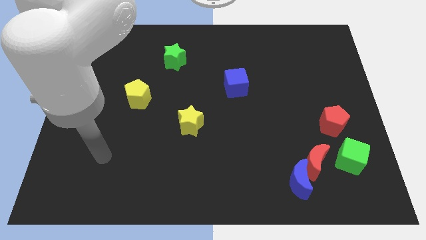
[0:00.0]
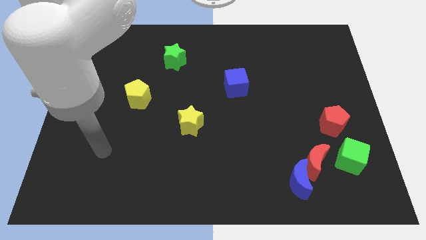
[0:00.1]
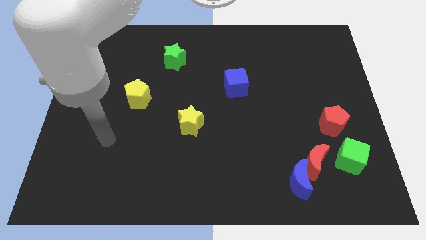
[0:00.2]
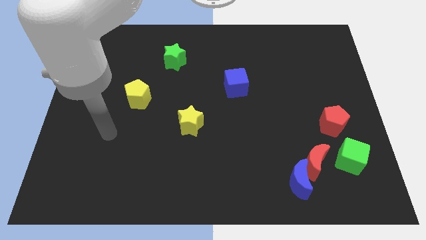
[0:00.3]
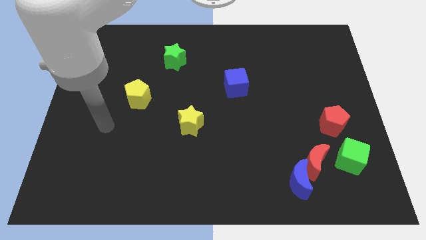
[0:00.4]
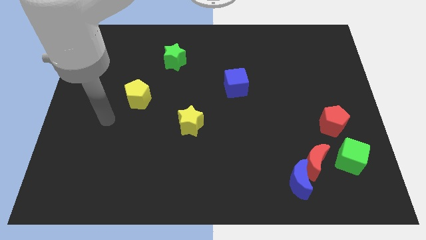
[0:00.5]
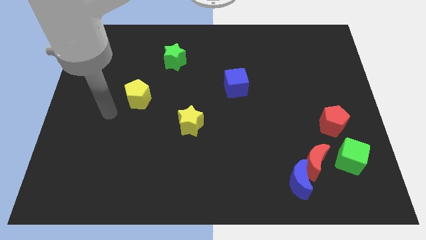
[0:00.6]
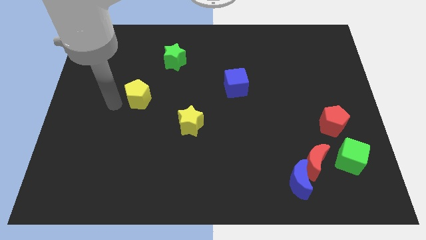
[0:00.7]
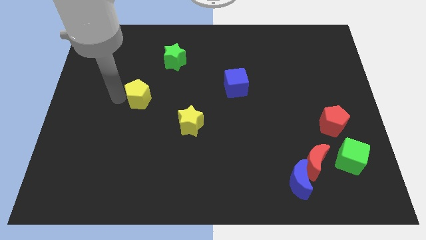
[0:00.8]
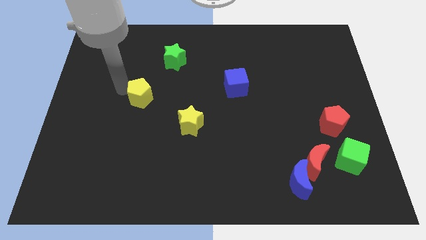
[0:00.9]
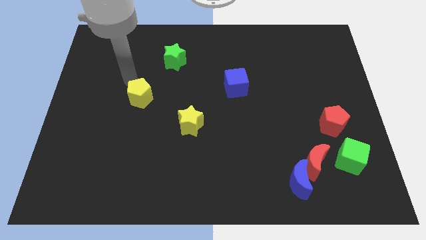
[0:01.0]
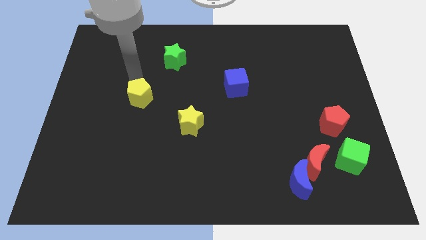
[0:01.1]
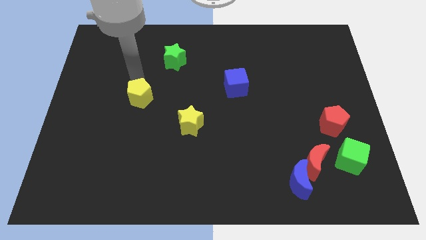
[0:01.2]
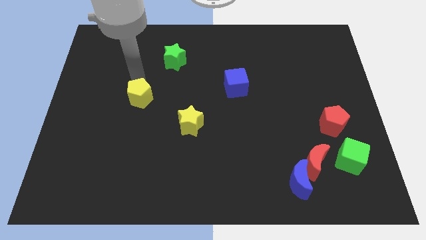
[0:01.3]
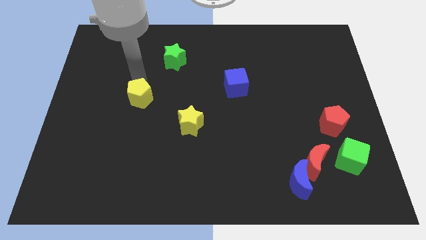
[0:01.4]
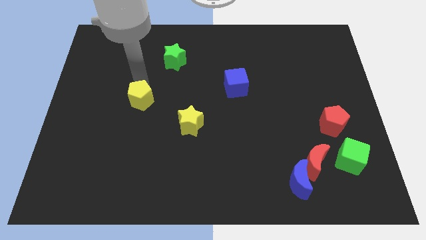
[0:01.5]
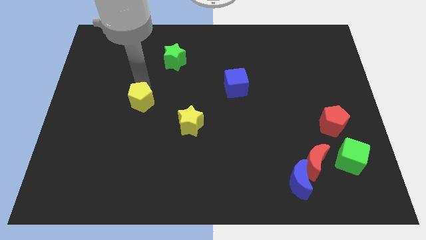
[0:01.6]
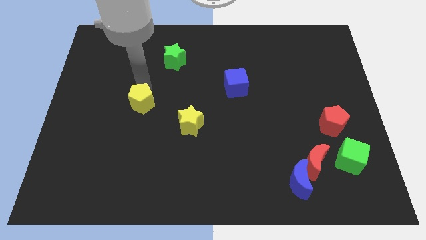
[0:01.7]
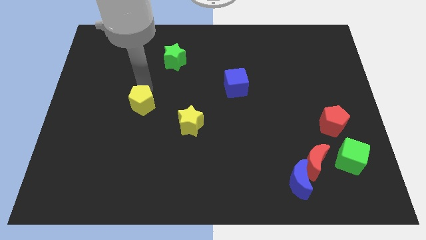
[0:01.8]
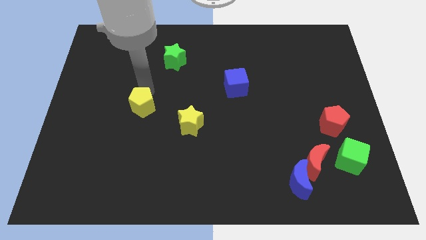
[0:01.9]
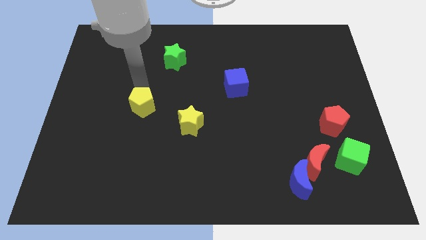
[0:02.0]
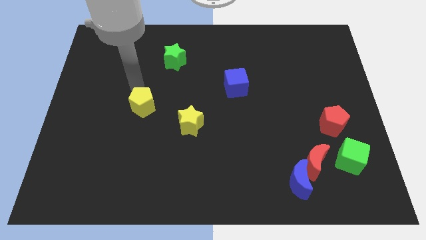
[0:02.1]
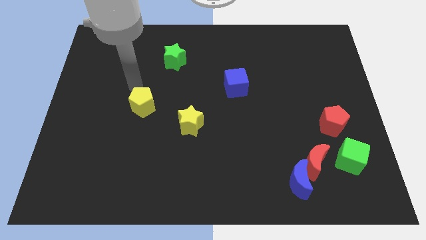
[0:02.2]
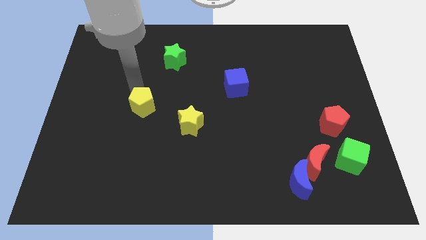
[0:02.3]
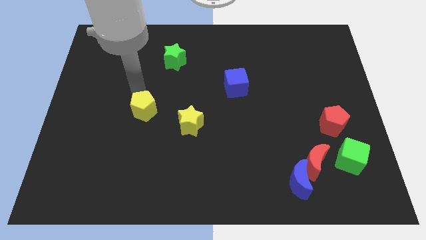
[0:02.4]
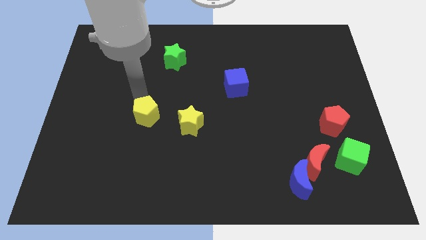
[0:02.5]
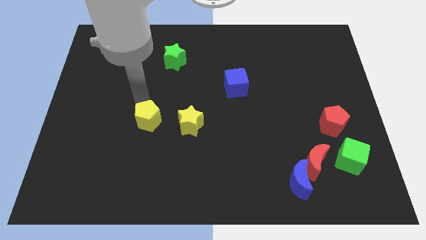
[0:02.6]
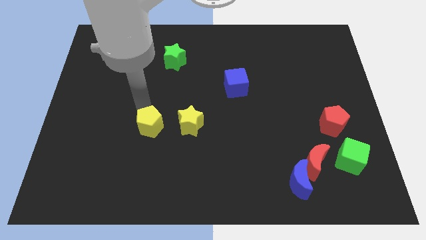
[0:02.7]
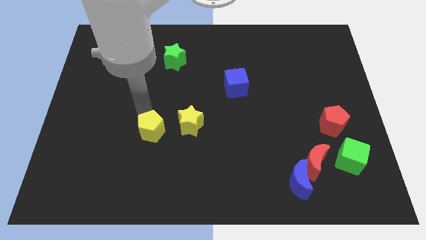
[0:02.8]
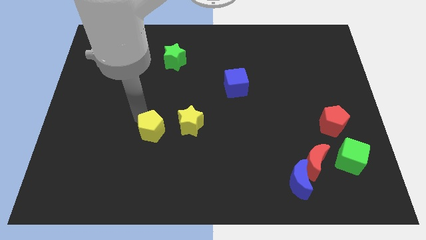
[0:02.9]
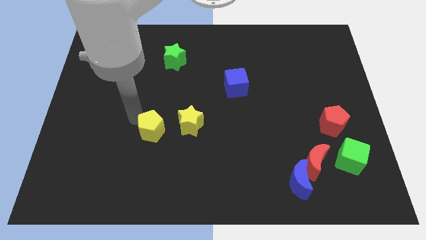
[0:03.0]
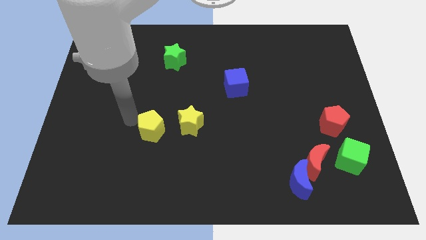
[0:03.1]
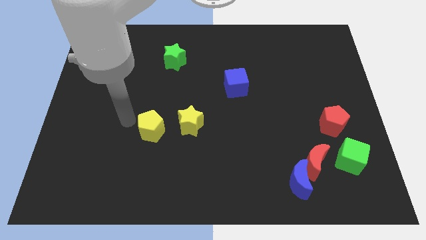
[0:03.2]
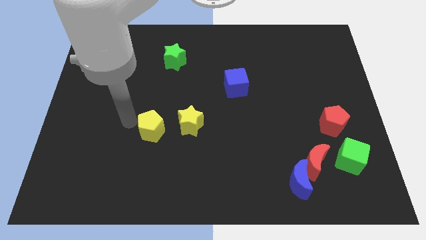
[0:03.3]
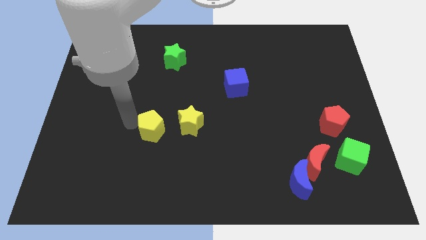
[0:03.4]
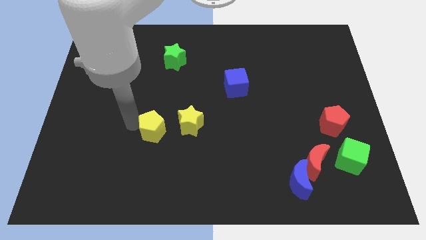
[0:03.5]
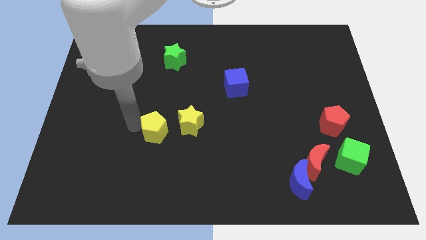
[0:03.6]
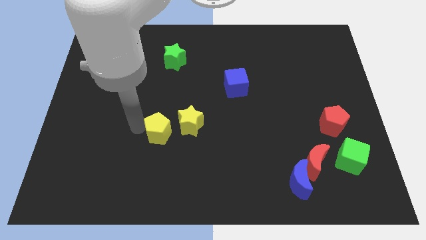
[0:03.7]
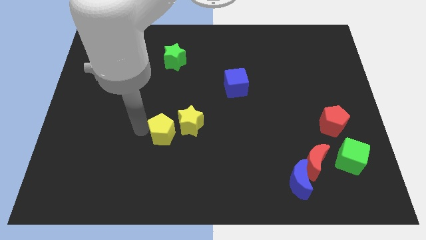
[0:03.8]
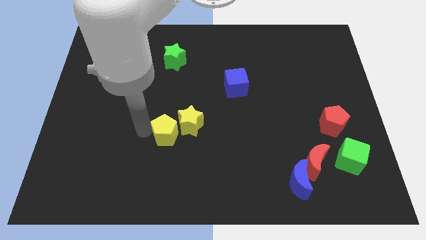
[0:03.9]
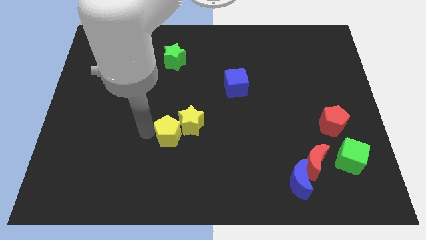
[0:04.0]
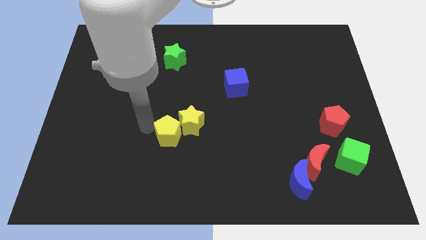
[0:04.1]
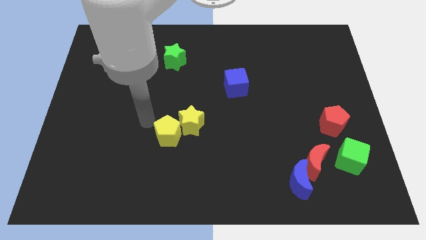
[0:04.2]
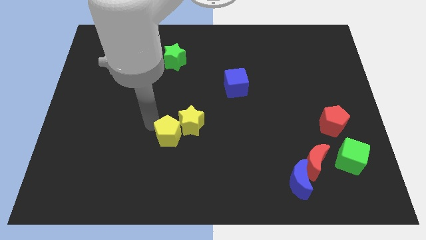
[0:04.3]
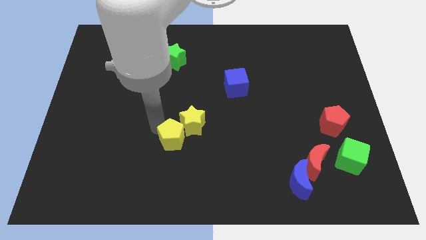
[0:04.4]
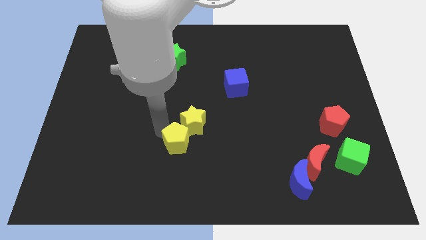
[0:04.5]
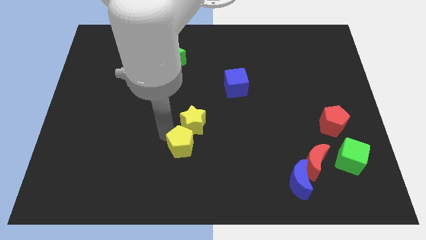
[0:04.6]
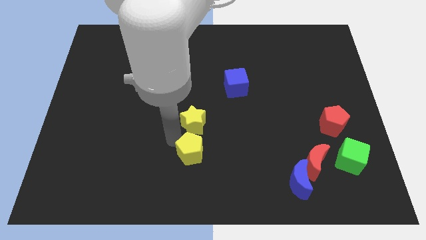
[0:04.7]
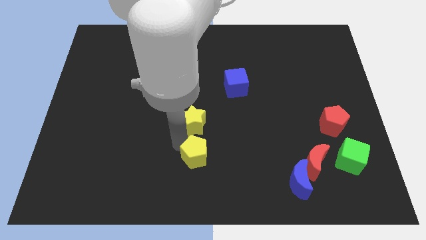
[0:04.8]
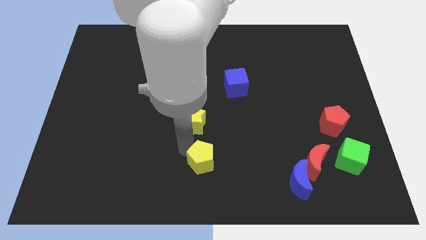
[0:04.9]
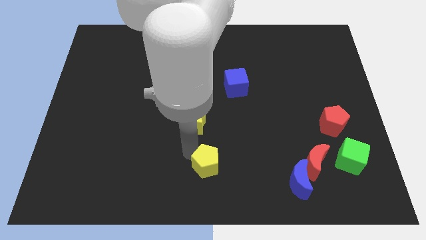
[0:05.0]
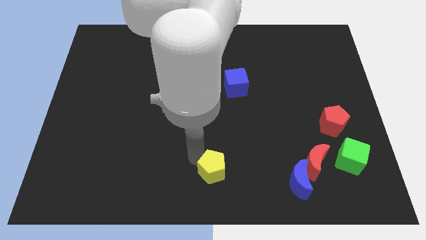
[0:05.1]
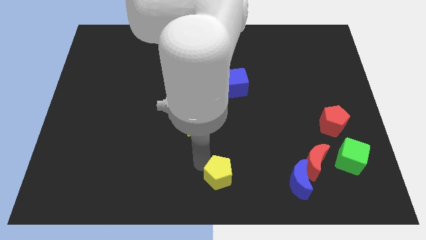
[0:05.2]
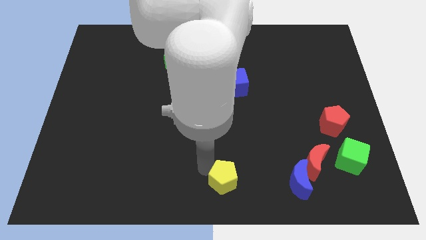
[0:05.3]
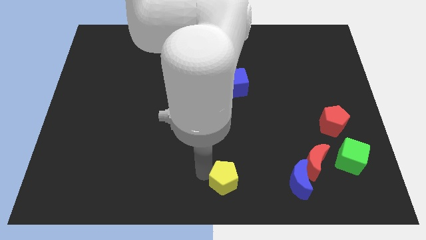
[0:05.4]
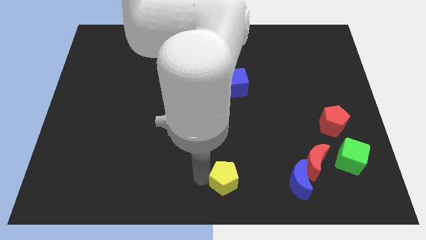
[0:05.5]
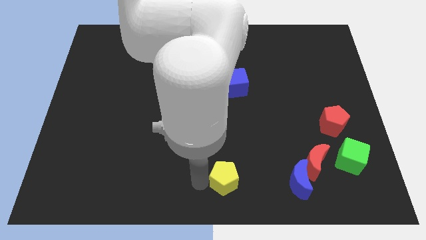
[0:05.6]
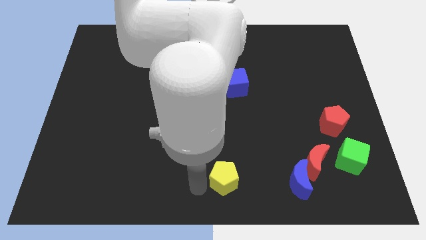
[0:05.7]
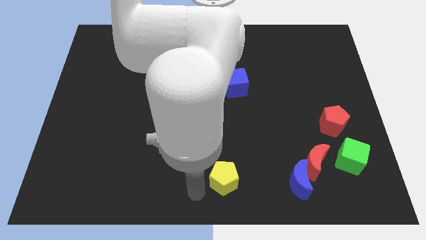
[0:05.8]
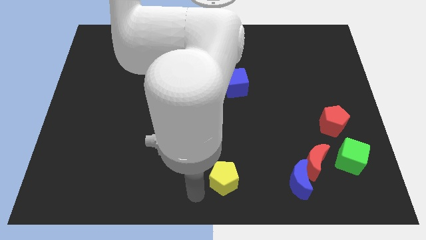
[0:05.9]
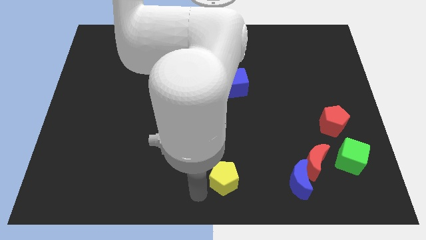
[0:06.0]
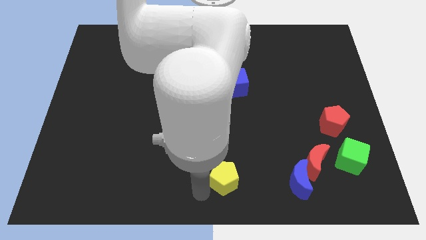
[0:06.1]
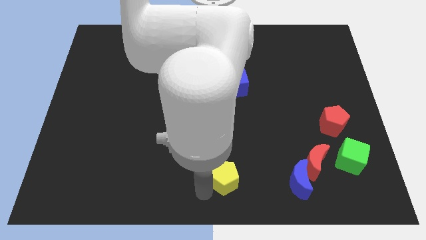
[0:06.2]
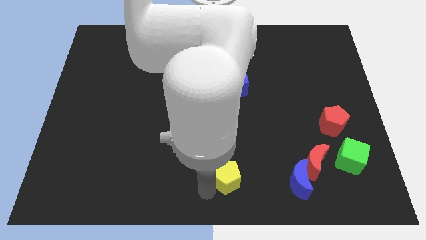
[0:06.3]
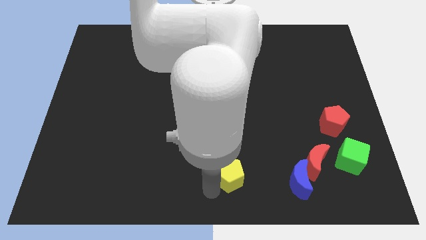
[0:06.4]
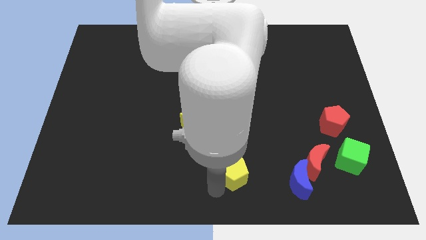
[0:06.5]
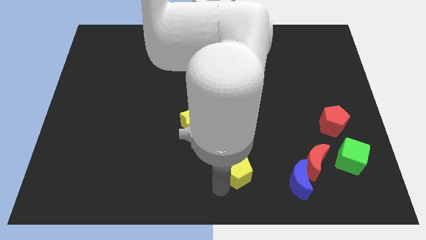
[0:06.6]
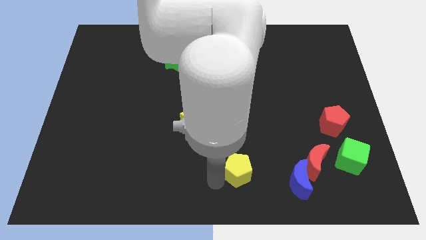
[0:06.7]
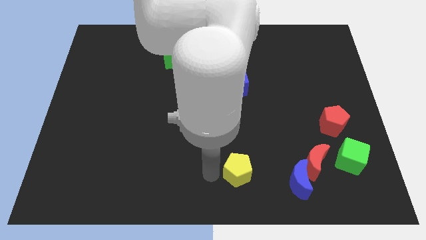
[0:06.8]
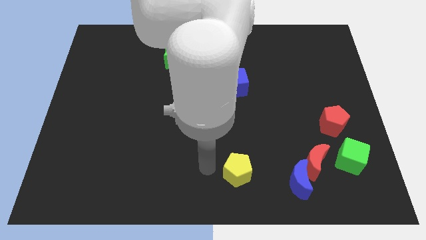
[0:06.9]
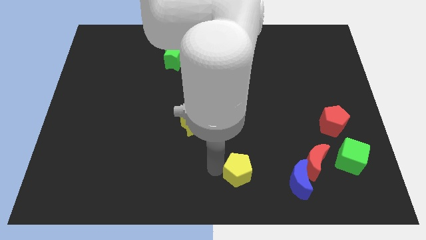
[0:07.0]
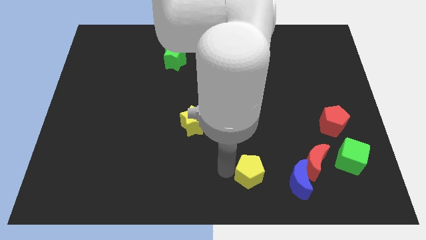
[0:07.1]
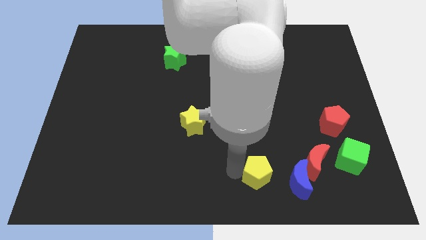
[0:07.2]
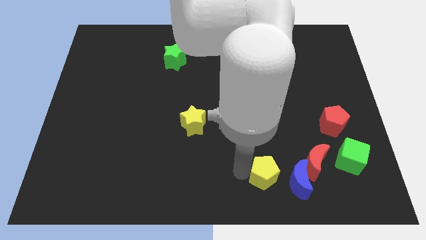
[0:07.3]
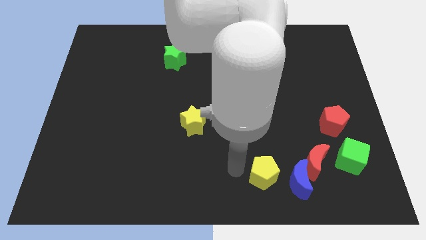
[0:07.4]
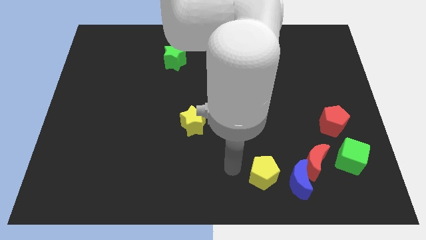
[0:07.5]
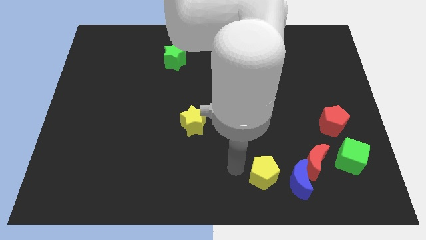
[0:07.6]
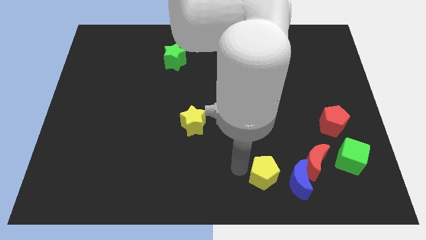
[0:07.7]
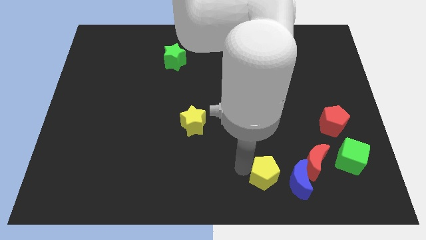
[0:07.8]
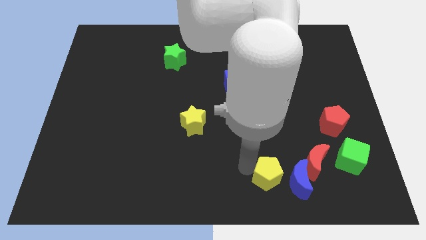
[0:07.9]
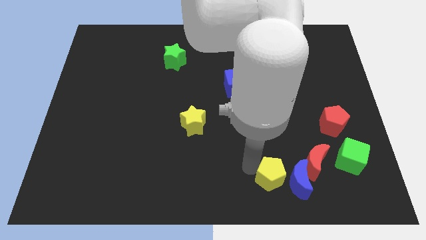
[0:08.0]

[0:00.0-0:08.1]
put the yellow pentagon next to the blue moon
